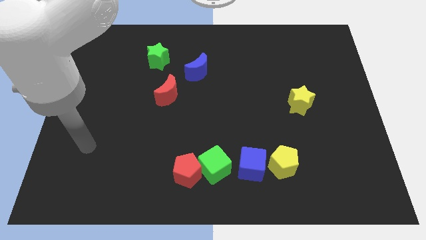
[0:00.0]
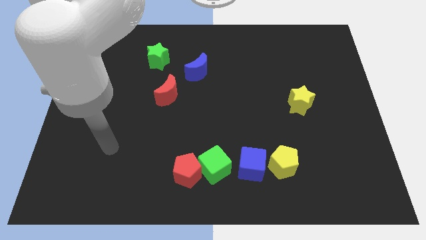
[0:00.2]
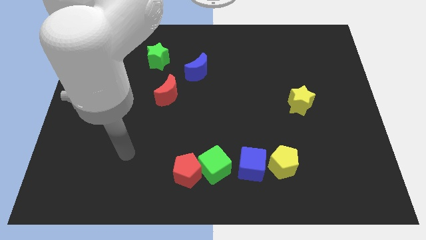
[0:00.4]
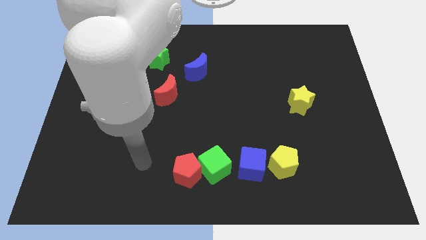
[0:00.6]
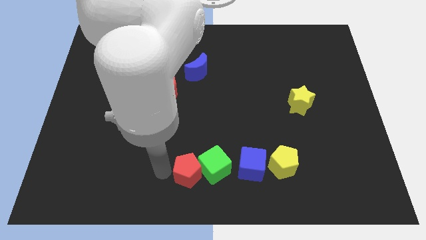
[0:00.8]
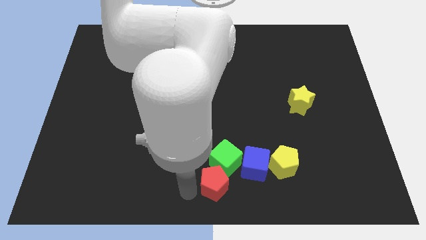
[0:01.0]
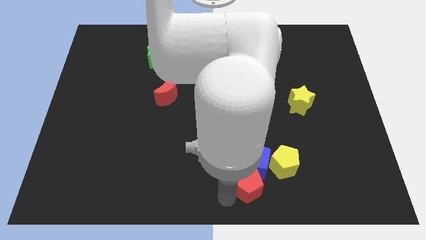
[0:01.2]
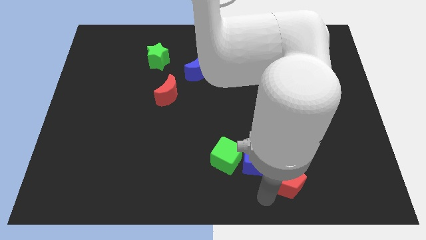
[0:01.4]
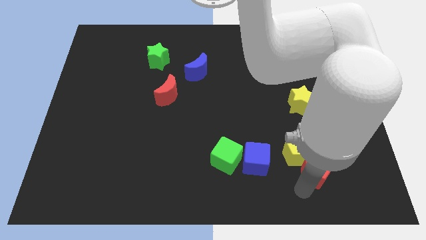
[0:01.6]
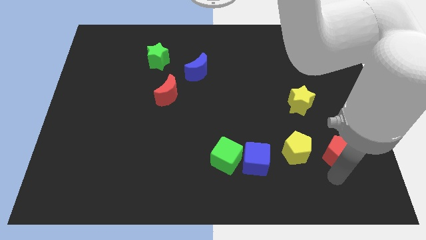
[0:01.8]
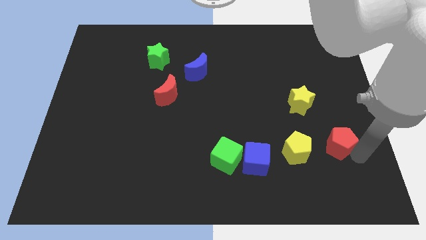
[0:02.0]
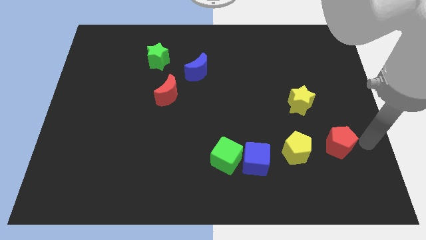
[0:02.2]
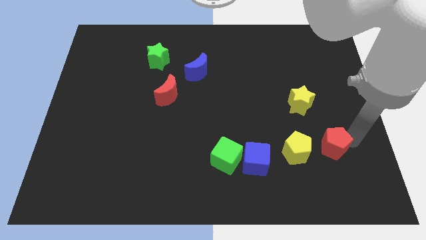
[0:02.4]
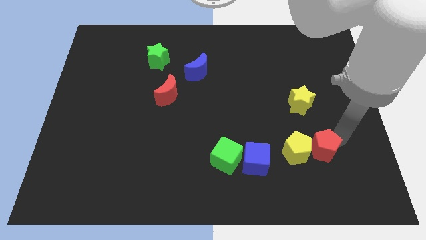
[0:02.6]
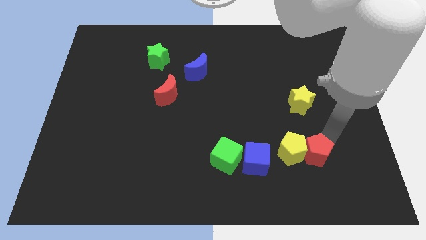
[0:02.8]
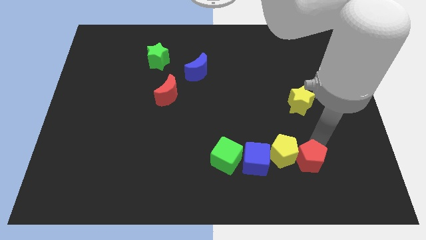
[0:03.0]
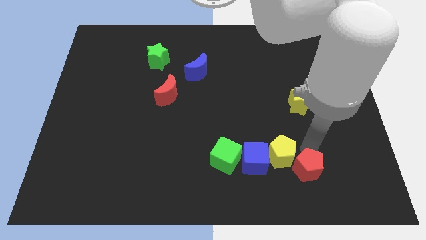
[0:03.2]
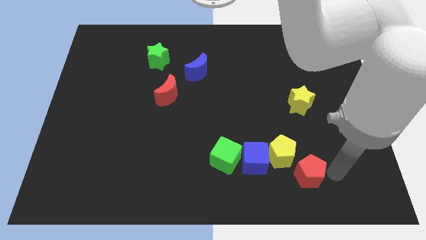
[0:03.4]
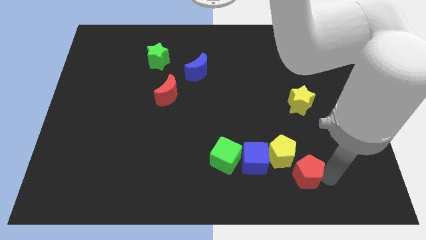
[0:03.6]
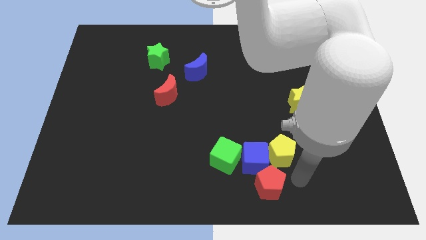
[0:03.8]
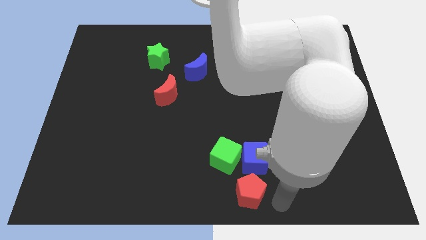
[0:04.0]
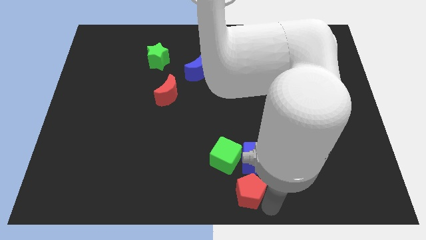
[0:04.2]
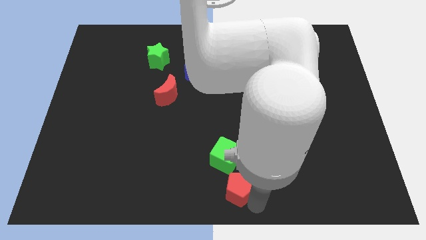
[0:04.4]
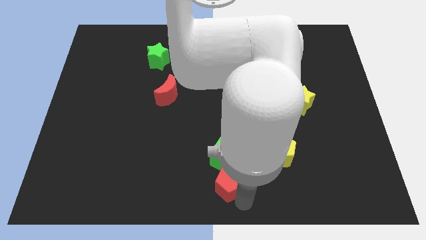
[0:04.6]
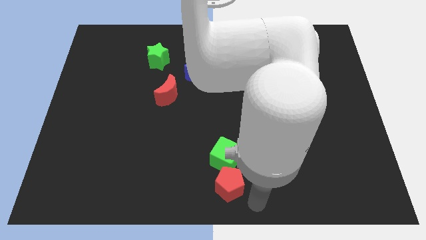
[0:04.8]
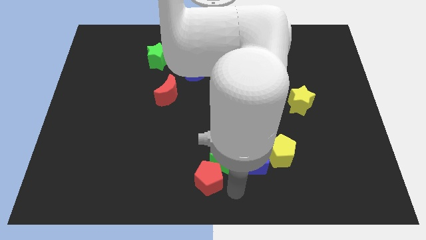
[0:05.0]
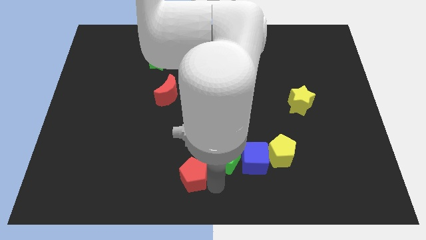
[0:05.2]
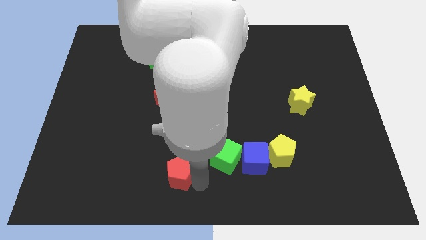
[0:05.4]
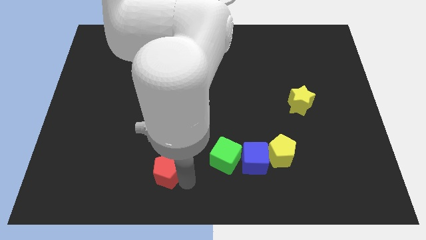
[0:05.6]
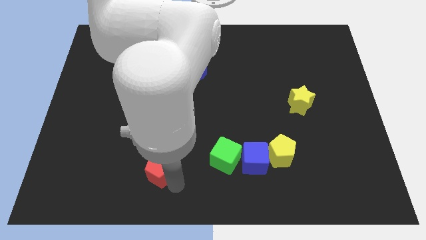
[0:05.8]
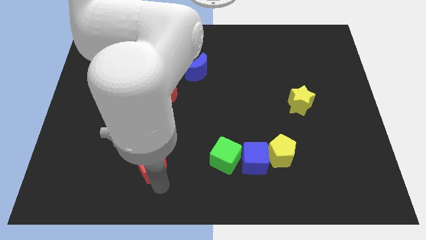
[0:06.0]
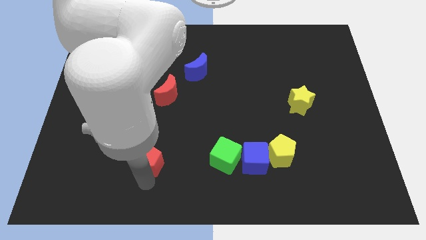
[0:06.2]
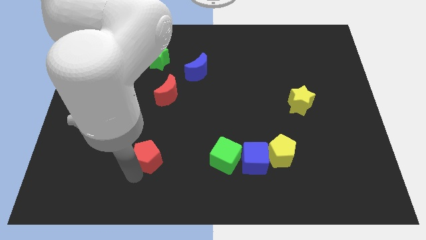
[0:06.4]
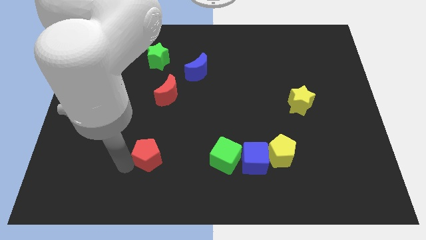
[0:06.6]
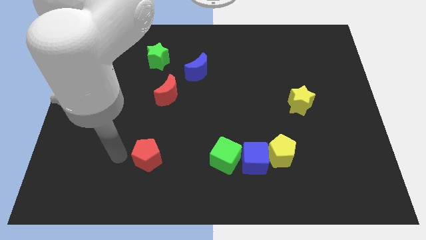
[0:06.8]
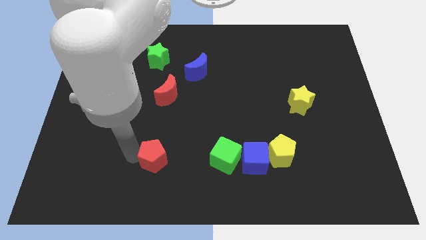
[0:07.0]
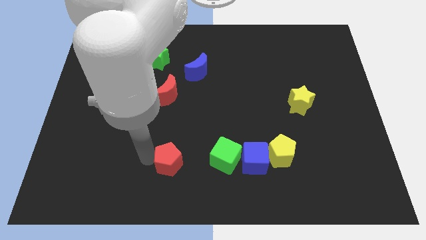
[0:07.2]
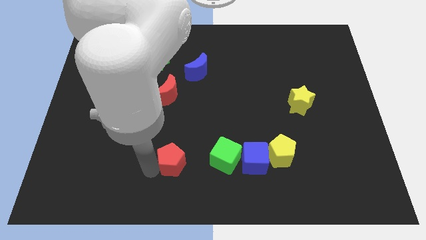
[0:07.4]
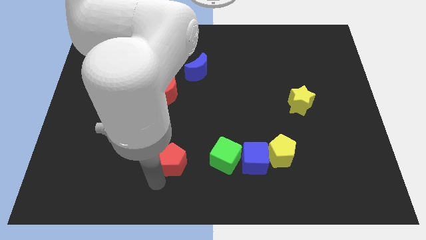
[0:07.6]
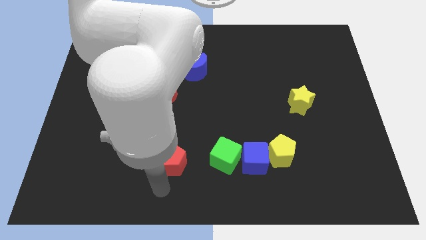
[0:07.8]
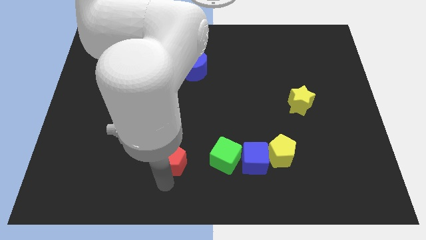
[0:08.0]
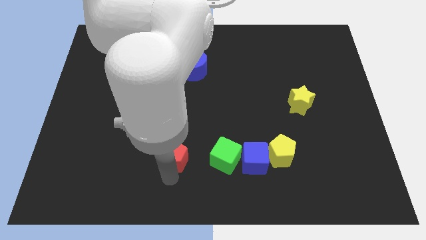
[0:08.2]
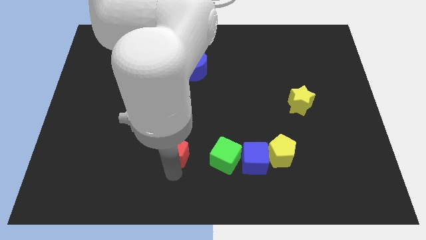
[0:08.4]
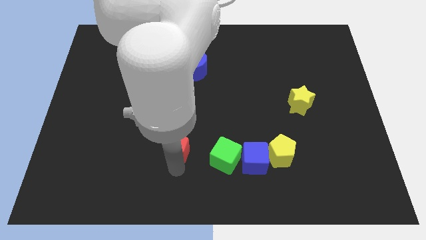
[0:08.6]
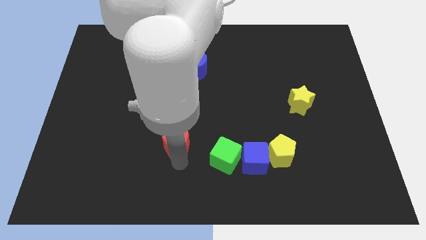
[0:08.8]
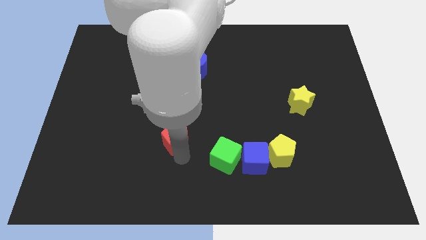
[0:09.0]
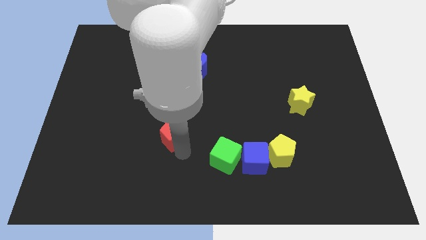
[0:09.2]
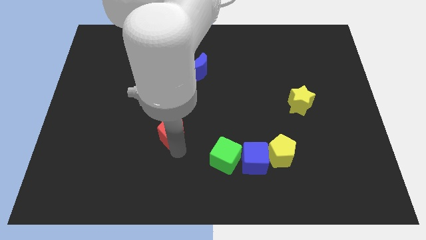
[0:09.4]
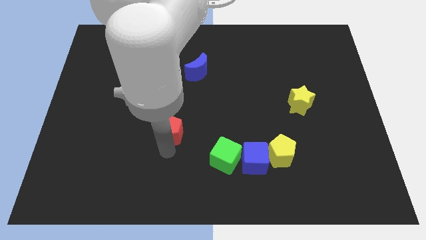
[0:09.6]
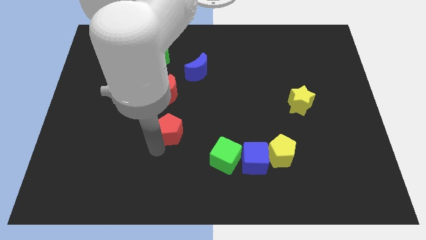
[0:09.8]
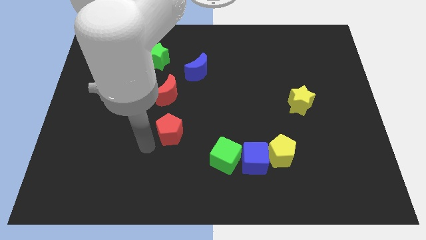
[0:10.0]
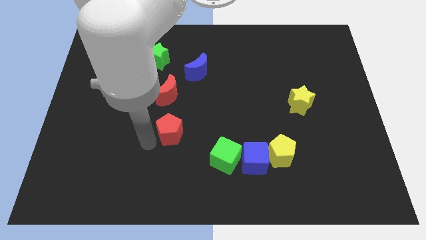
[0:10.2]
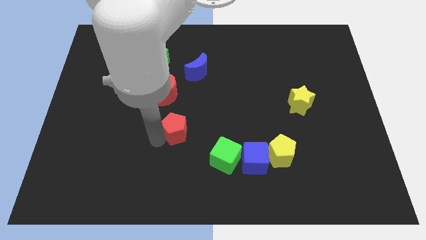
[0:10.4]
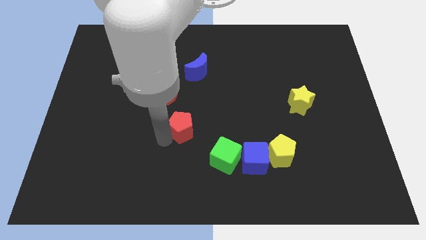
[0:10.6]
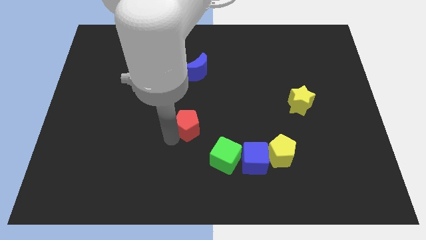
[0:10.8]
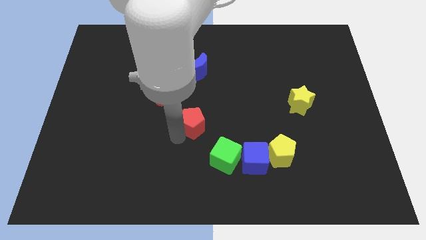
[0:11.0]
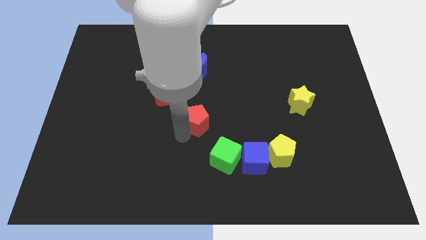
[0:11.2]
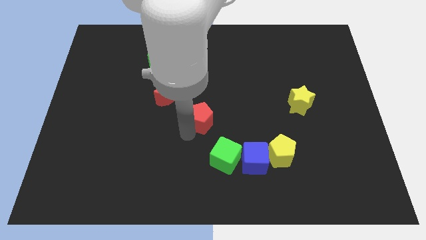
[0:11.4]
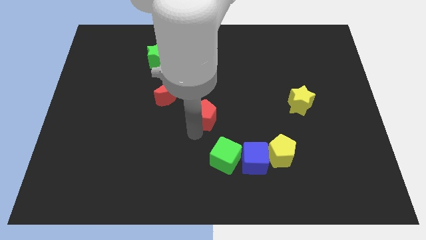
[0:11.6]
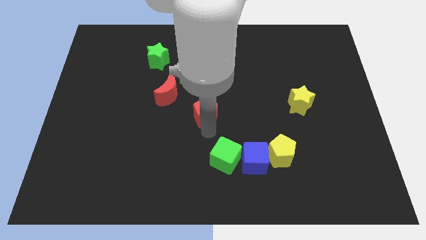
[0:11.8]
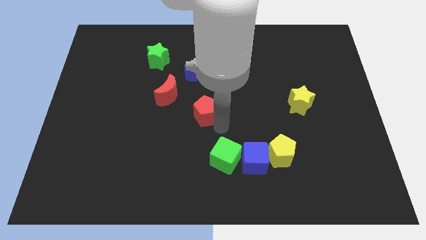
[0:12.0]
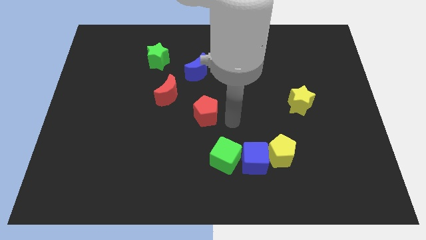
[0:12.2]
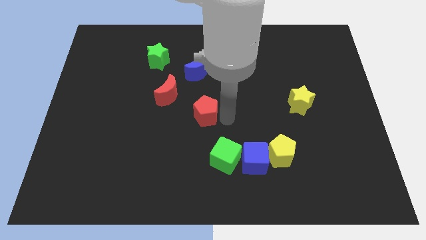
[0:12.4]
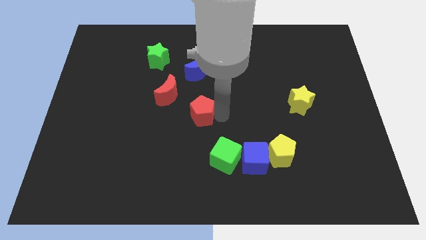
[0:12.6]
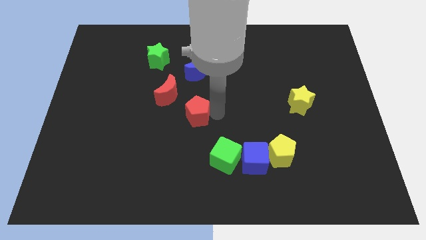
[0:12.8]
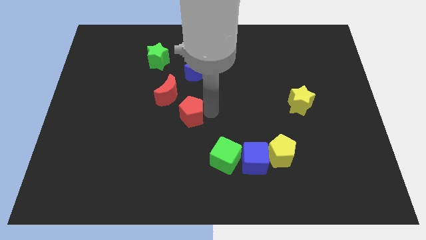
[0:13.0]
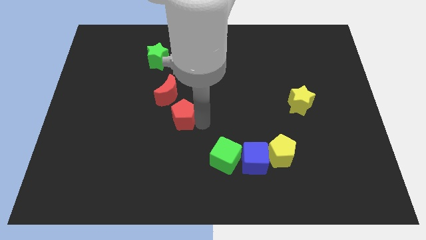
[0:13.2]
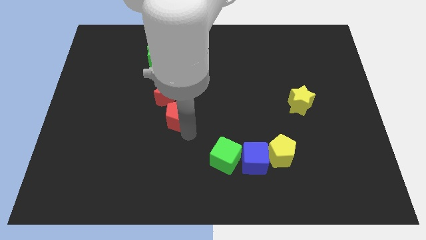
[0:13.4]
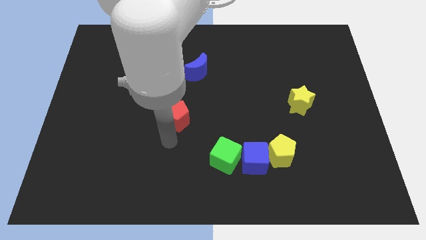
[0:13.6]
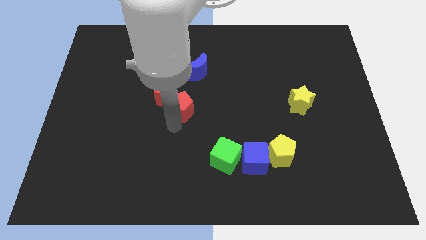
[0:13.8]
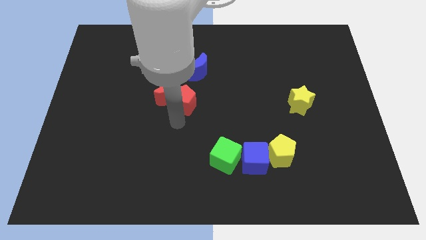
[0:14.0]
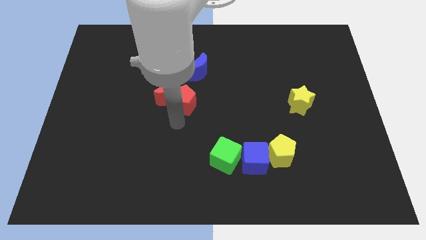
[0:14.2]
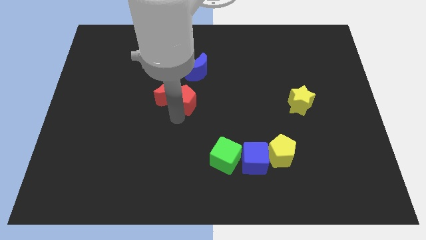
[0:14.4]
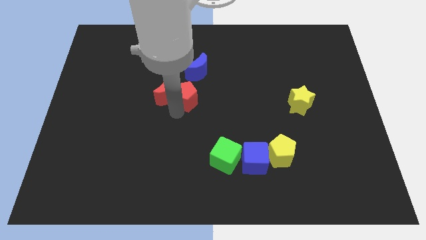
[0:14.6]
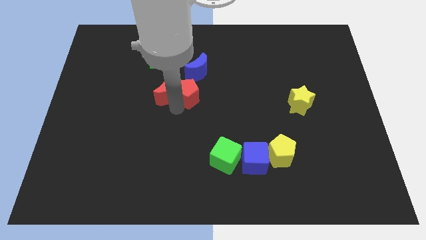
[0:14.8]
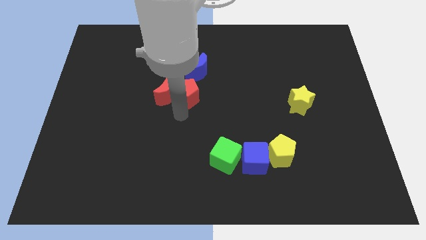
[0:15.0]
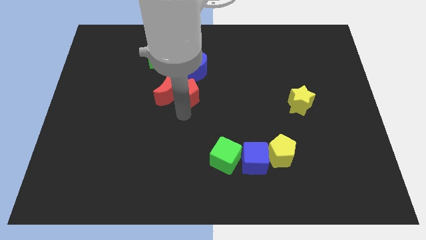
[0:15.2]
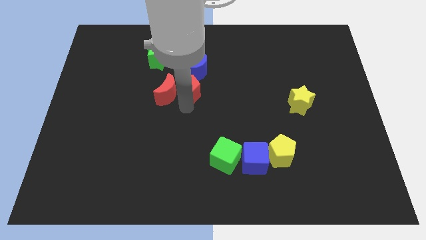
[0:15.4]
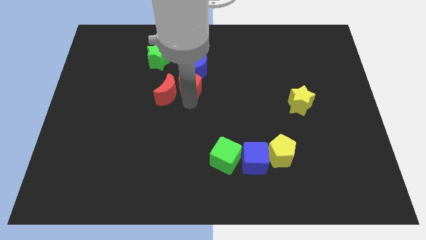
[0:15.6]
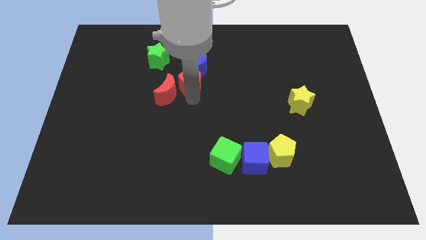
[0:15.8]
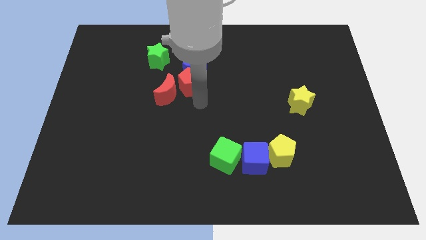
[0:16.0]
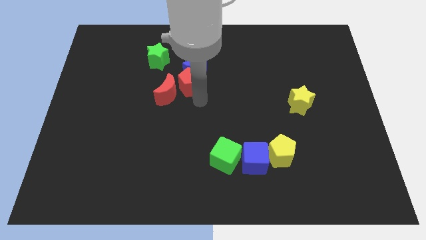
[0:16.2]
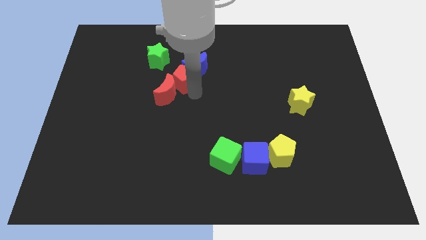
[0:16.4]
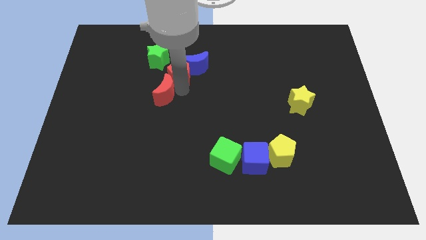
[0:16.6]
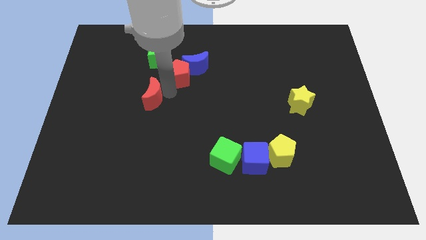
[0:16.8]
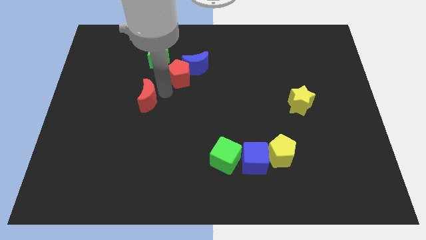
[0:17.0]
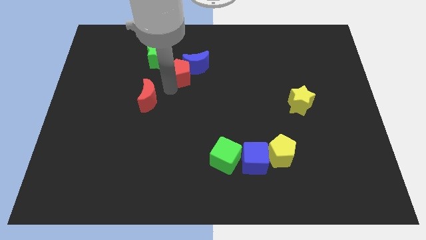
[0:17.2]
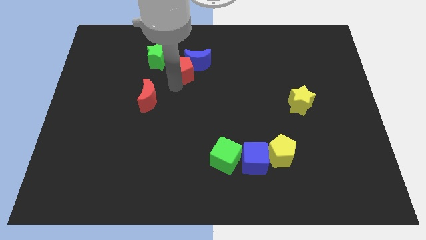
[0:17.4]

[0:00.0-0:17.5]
put the red pentagon right of the green star
